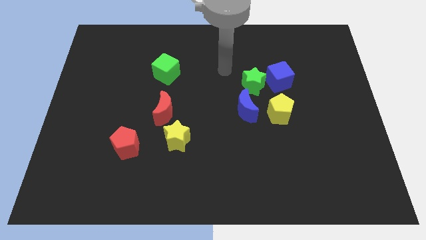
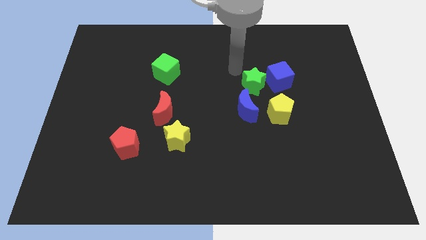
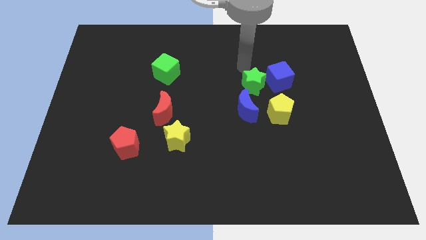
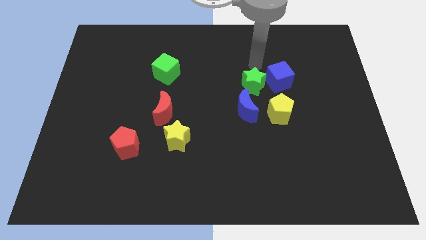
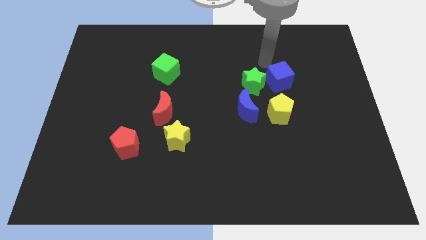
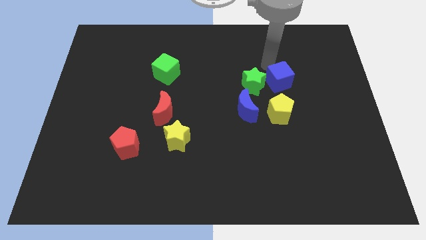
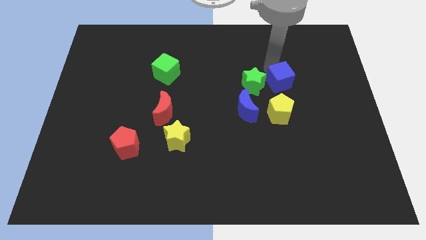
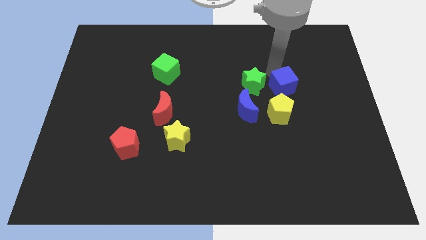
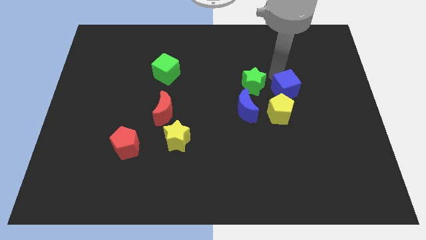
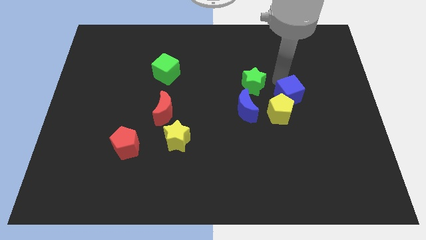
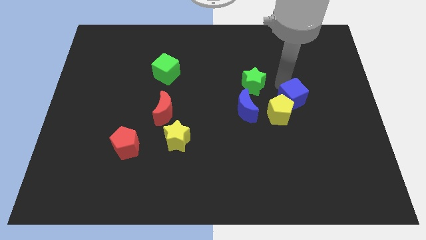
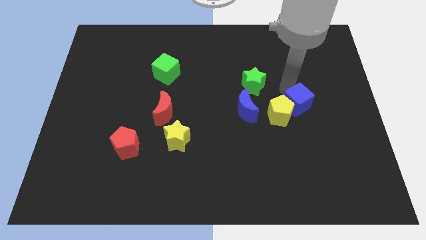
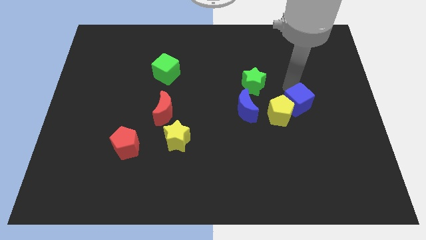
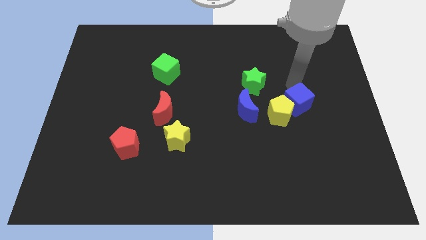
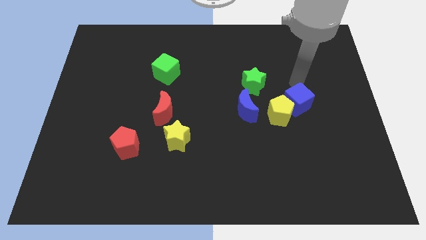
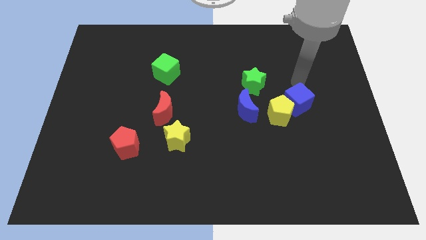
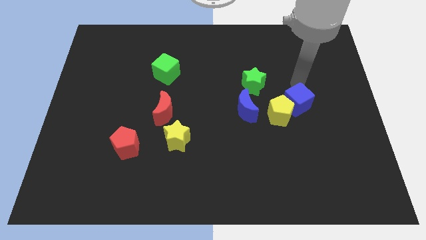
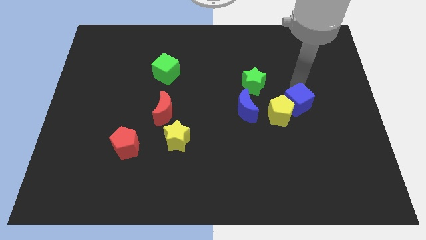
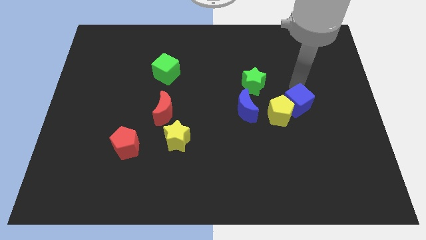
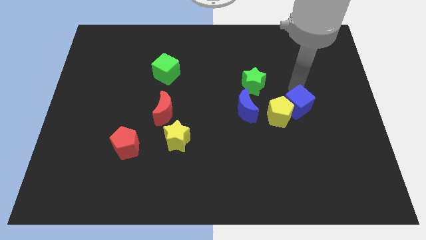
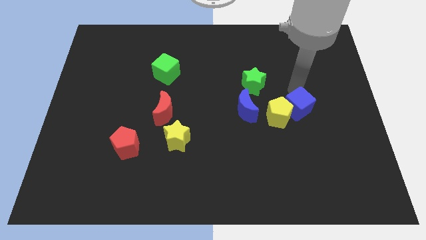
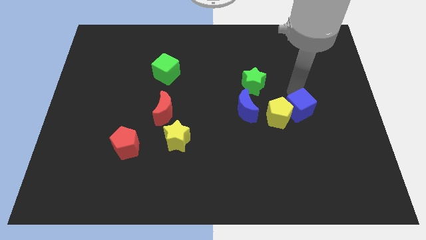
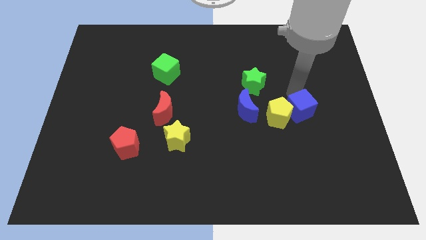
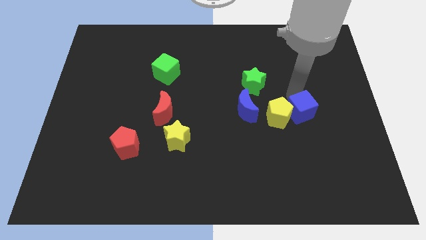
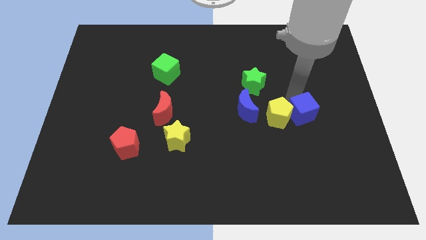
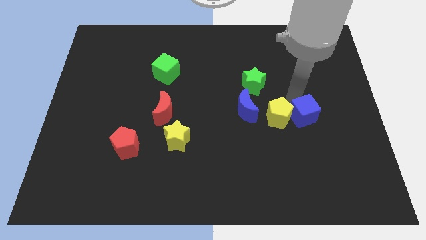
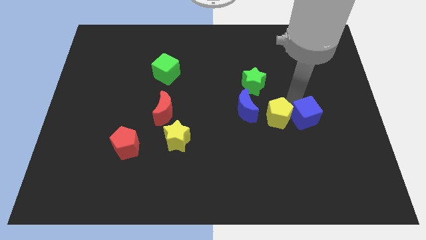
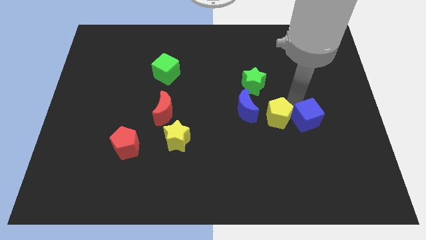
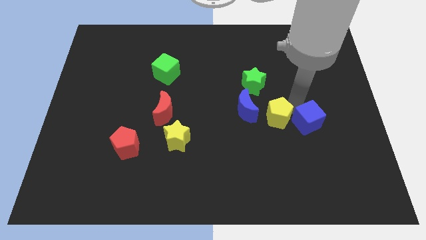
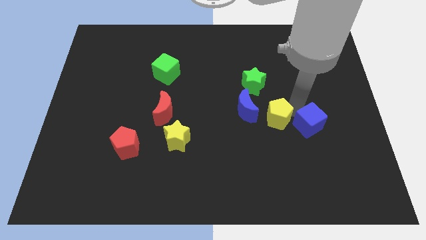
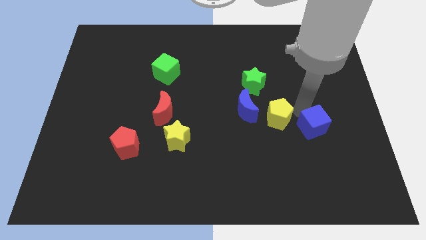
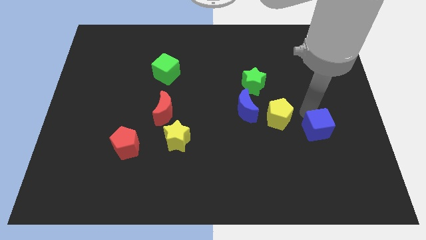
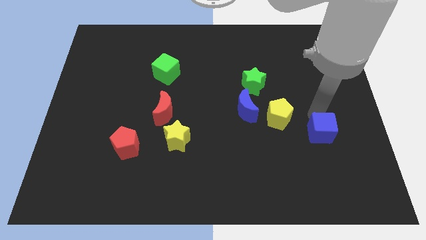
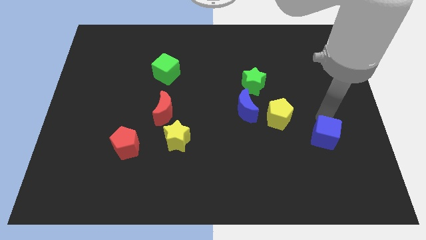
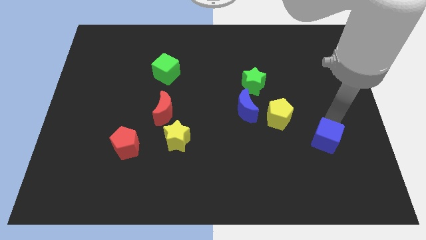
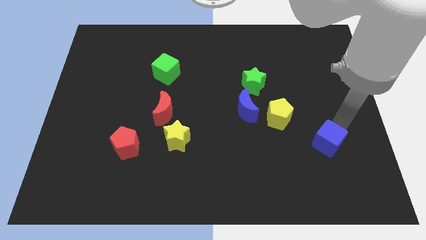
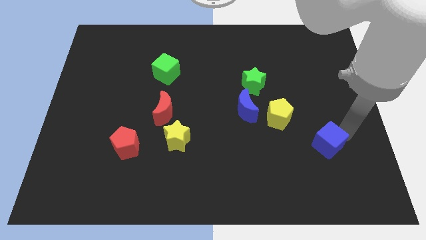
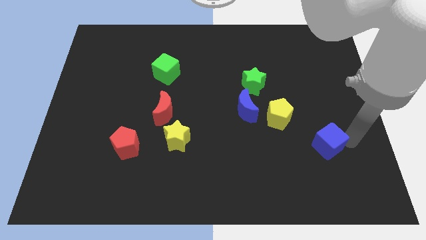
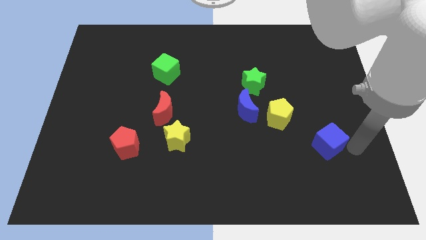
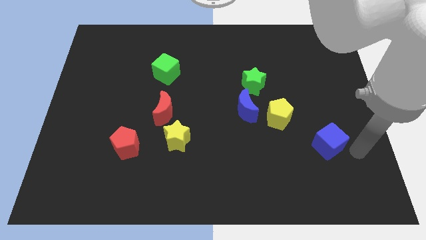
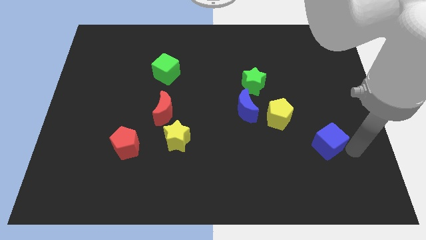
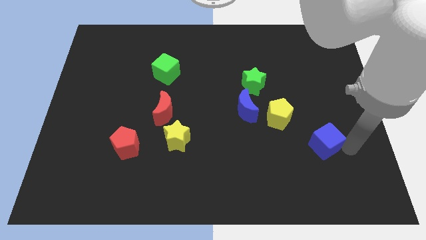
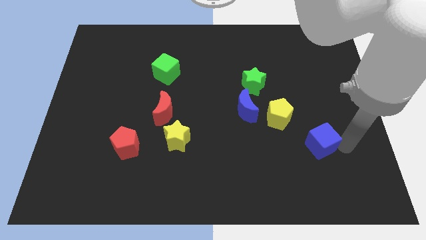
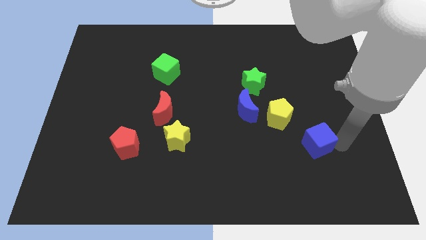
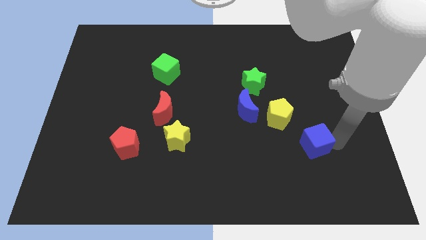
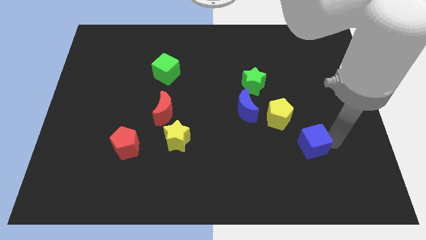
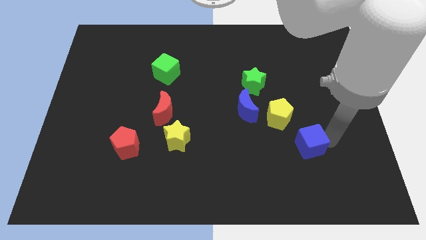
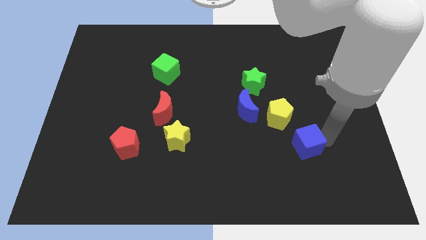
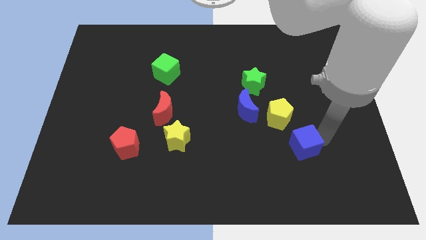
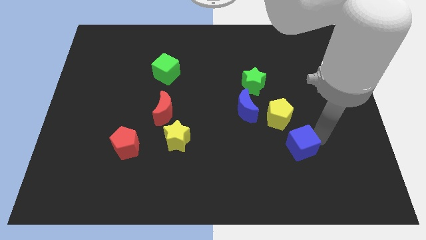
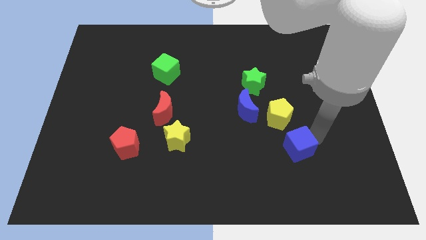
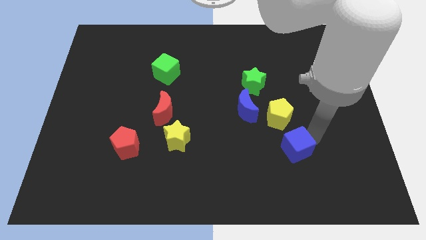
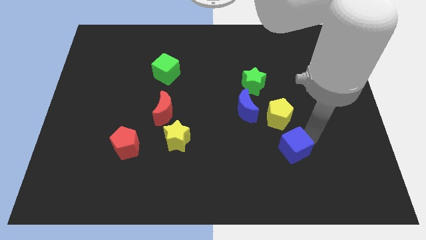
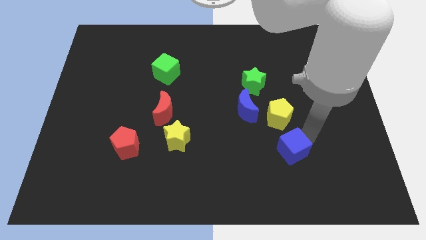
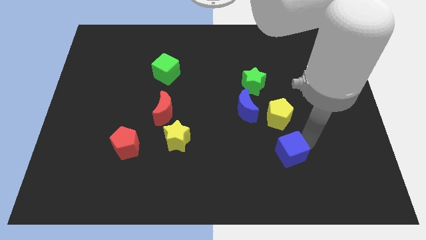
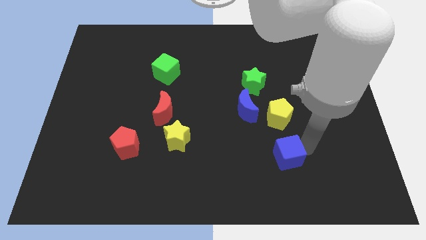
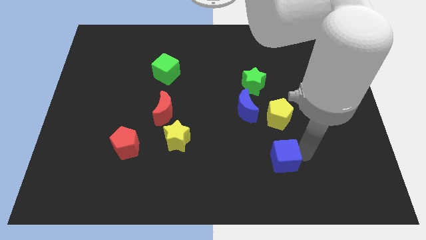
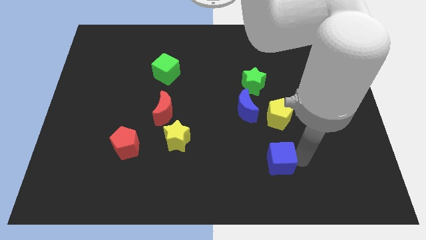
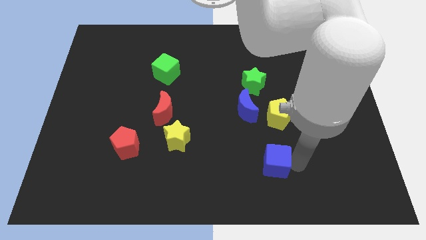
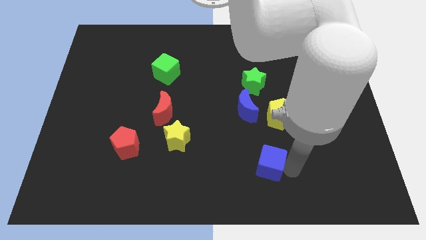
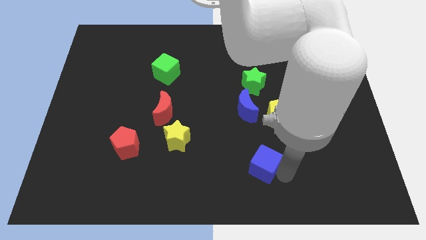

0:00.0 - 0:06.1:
put the blue cube to the bottom of the blue moon

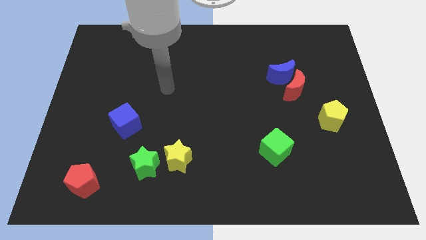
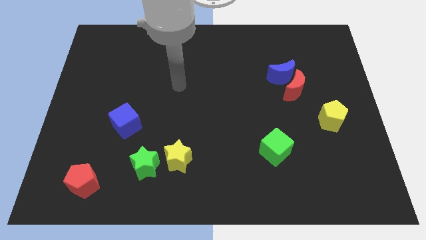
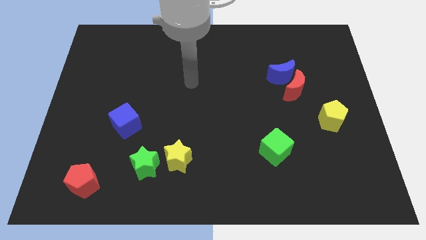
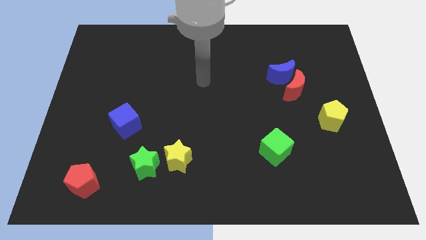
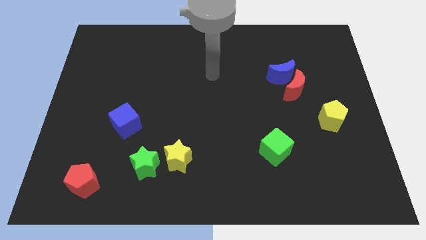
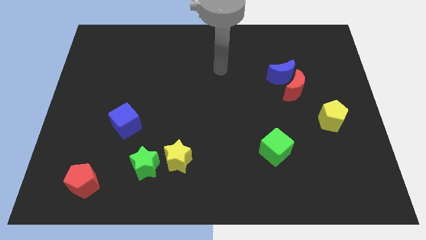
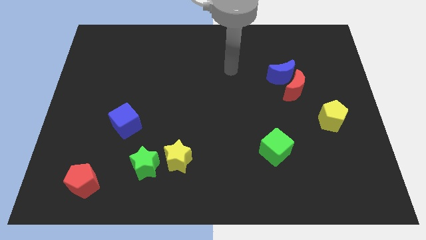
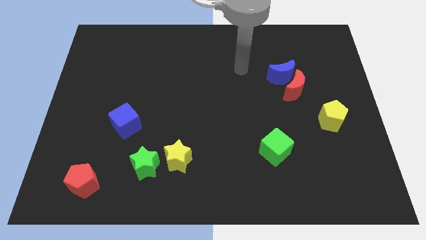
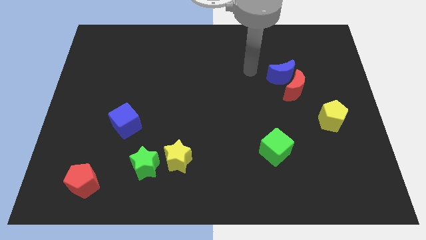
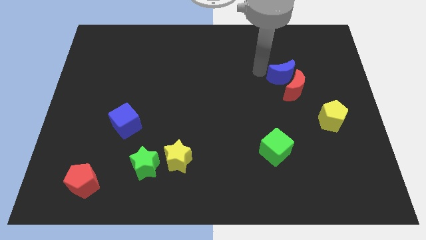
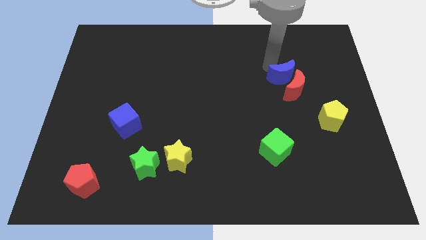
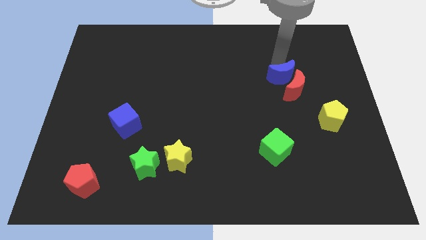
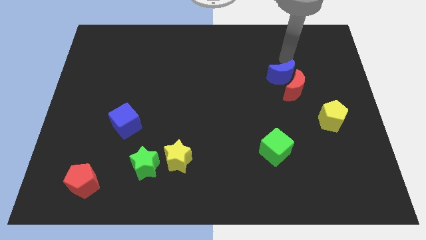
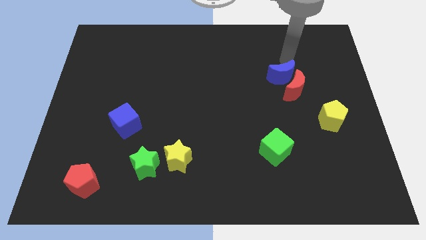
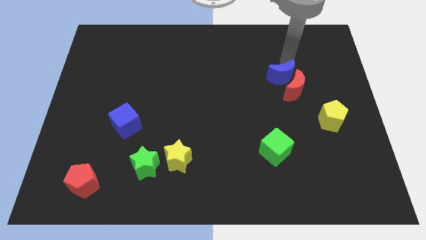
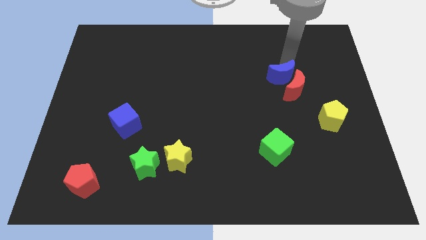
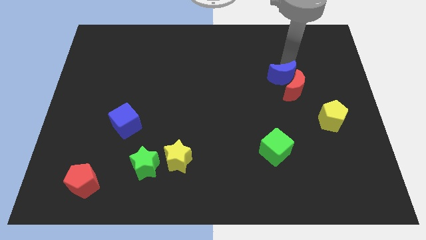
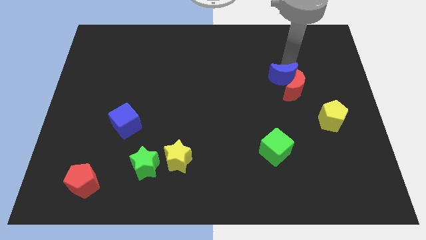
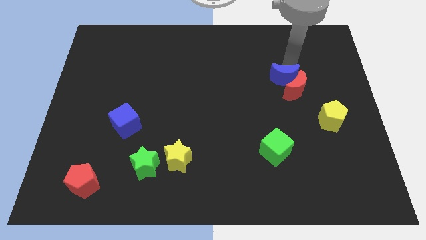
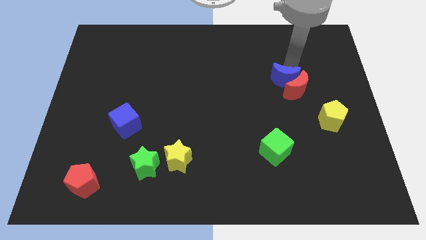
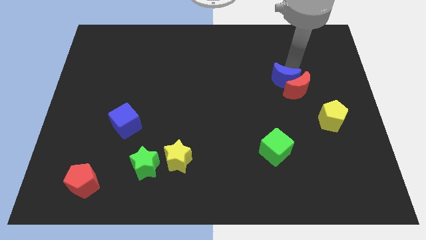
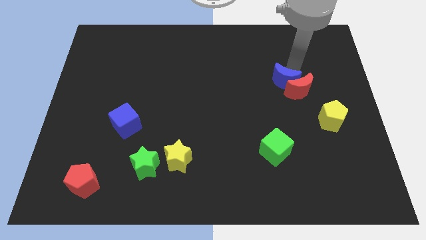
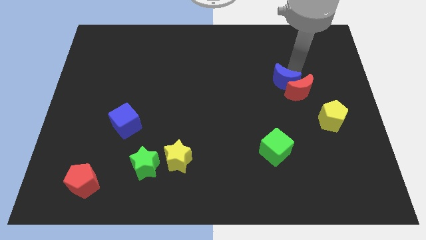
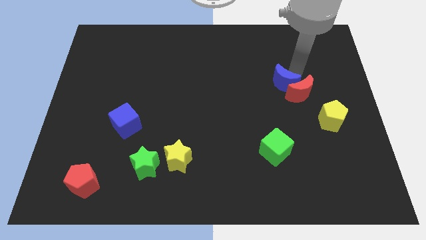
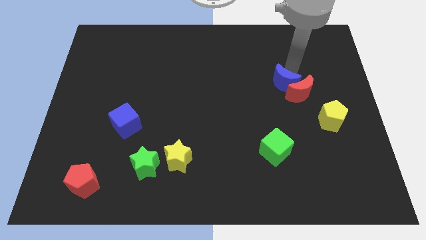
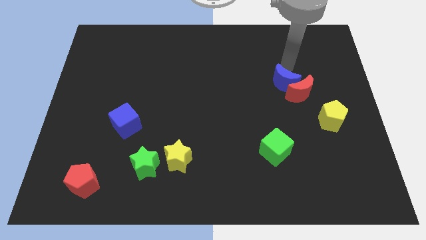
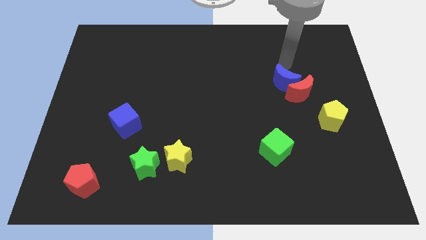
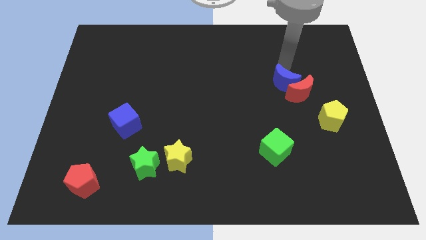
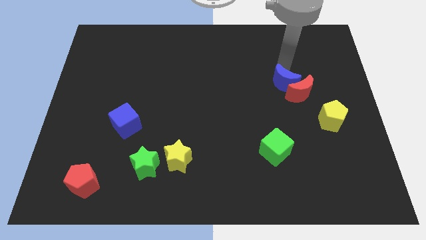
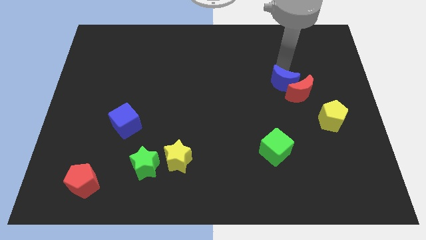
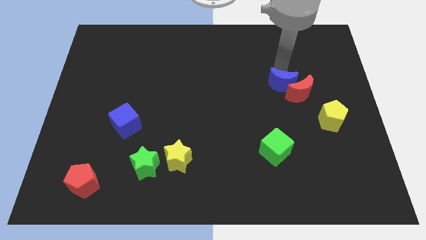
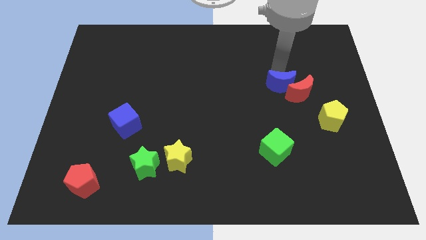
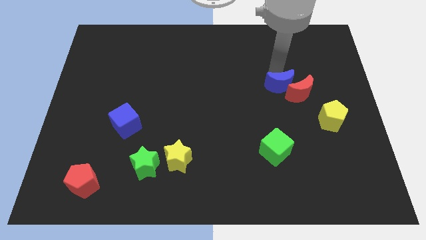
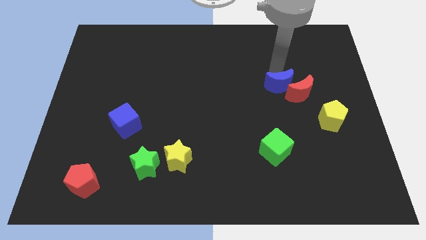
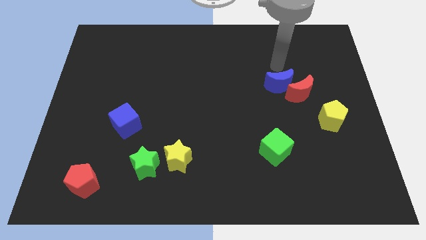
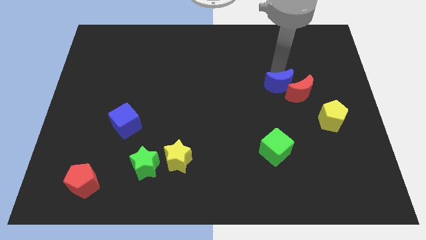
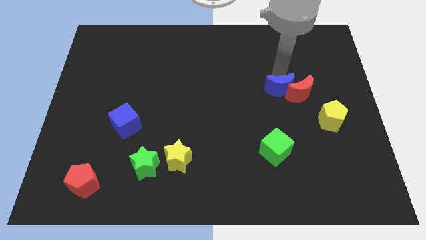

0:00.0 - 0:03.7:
move the blue moon to the bottom left of the red moon
